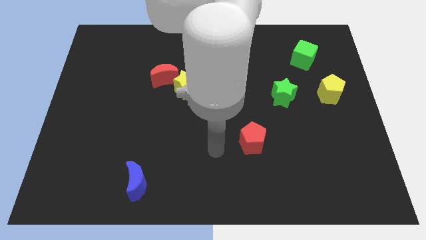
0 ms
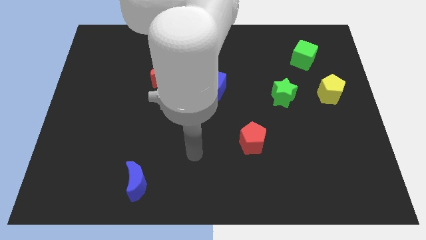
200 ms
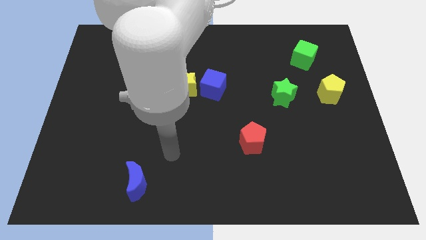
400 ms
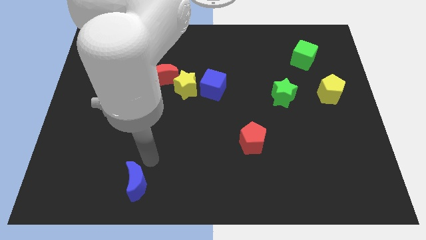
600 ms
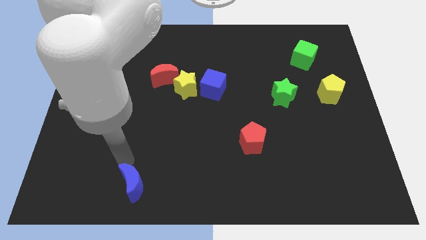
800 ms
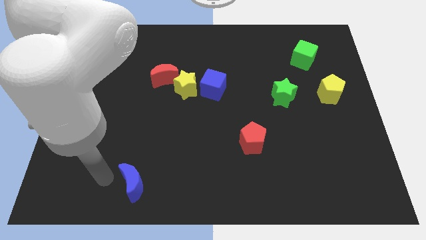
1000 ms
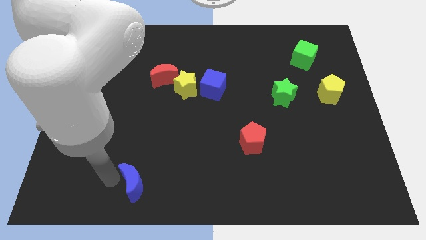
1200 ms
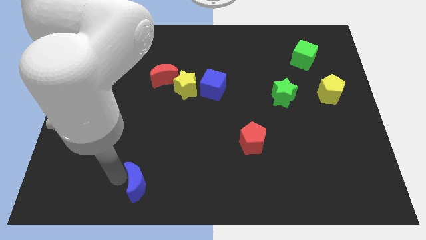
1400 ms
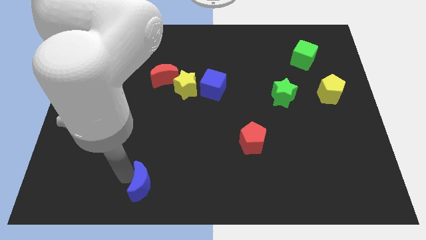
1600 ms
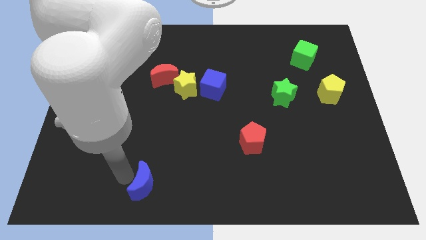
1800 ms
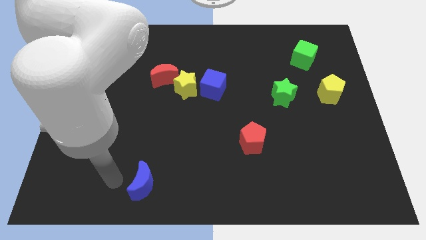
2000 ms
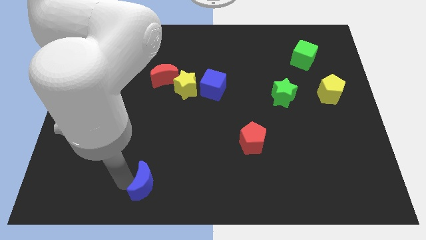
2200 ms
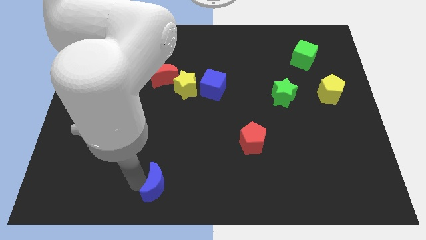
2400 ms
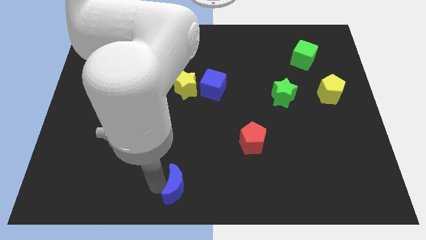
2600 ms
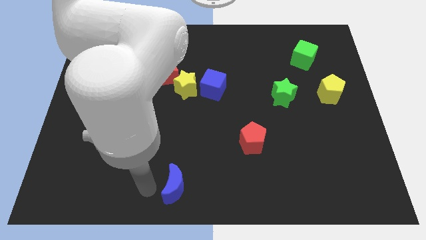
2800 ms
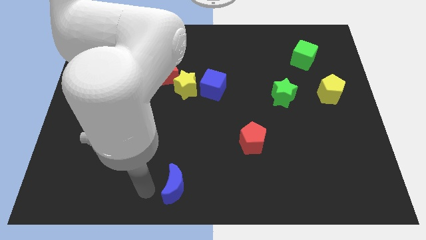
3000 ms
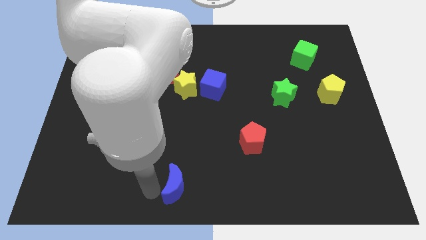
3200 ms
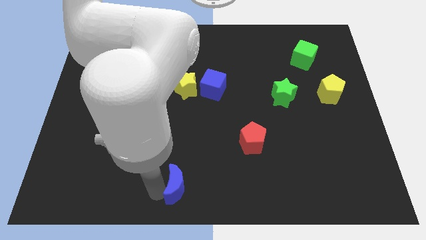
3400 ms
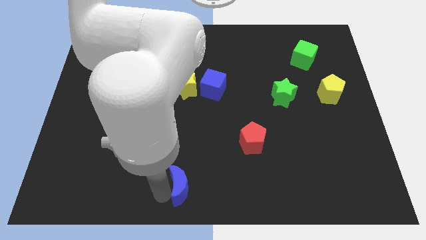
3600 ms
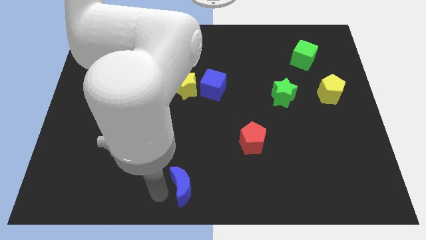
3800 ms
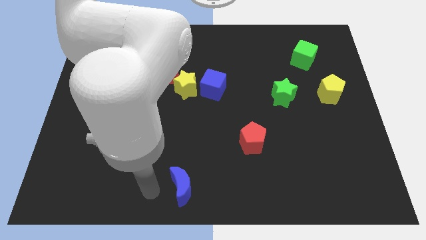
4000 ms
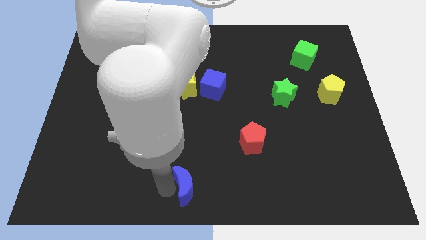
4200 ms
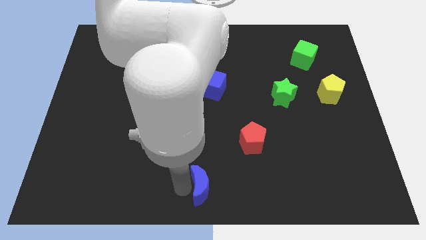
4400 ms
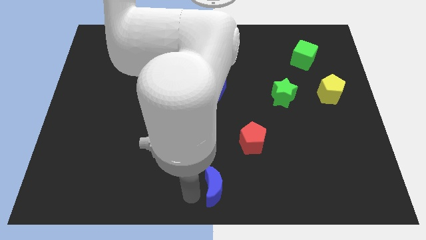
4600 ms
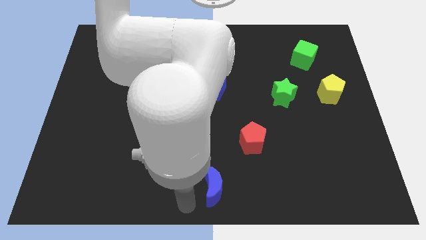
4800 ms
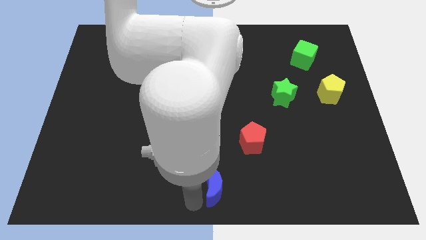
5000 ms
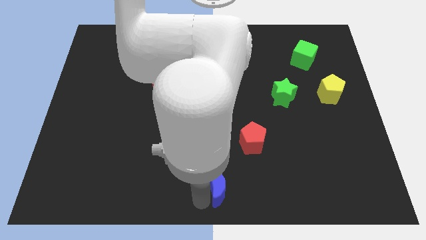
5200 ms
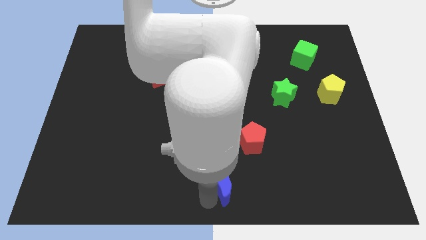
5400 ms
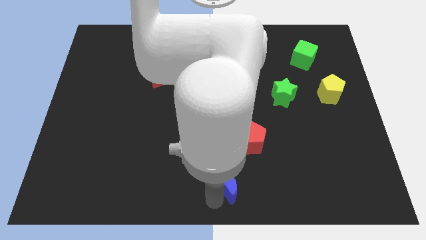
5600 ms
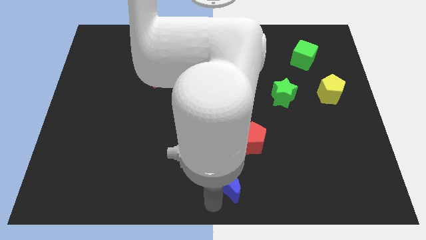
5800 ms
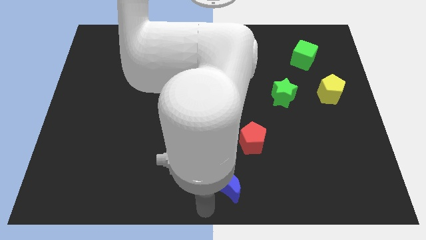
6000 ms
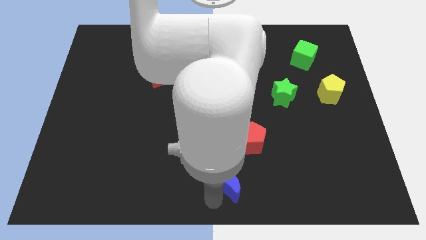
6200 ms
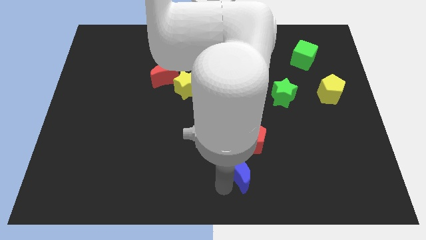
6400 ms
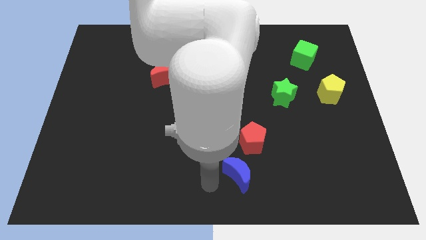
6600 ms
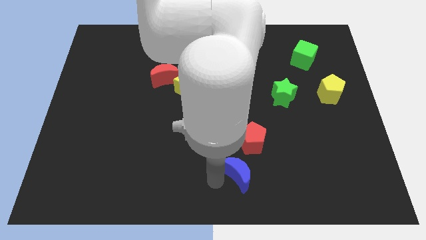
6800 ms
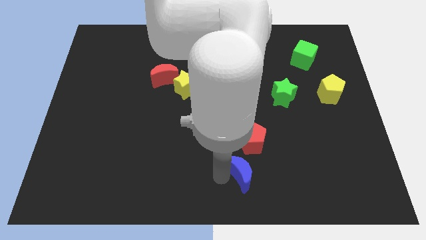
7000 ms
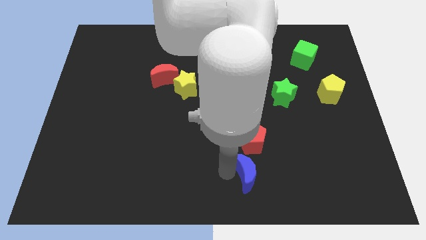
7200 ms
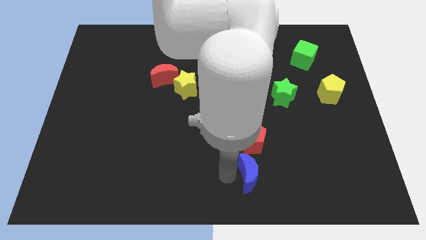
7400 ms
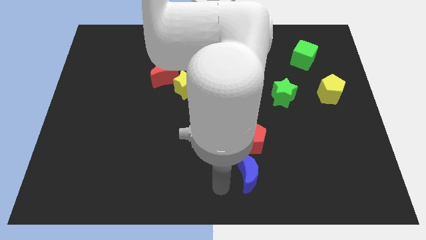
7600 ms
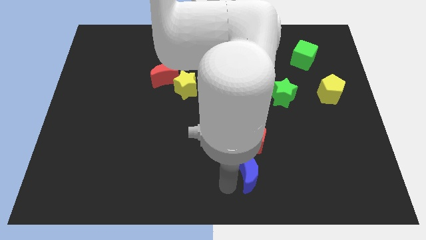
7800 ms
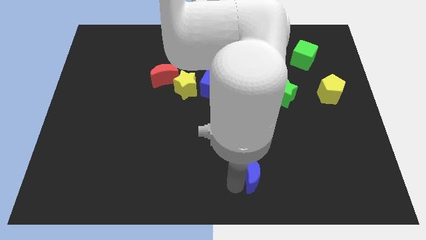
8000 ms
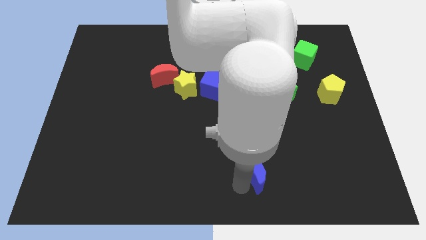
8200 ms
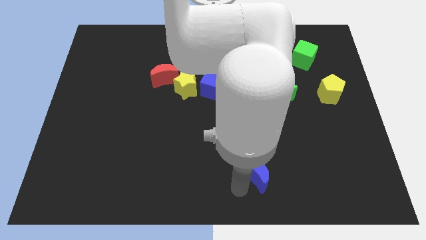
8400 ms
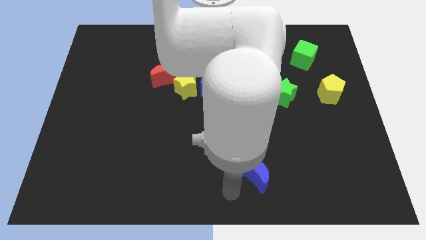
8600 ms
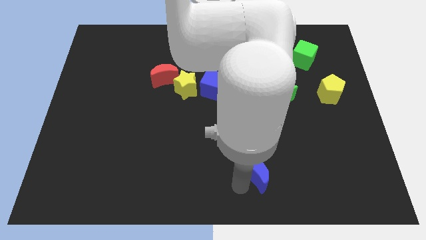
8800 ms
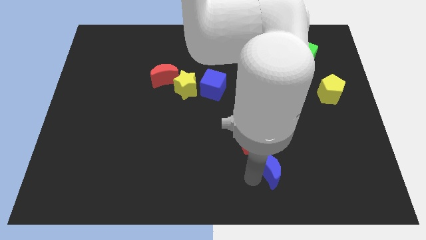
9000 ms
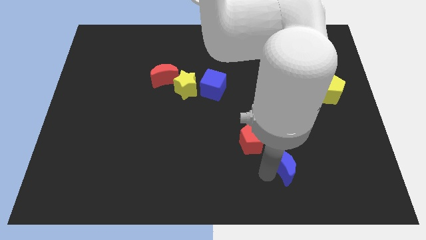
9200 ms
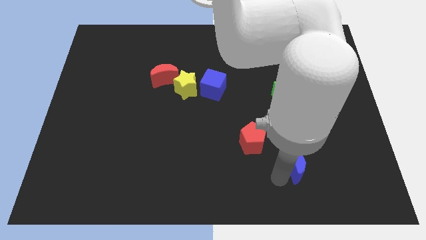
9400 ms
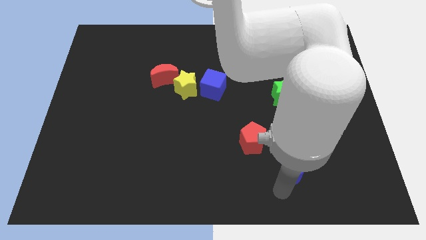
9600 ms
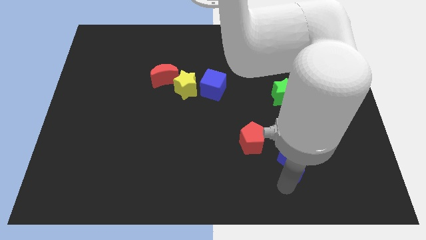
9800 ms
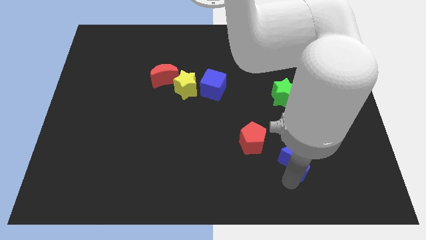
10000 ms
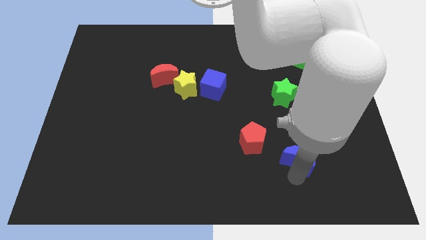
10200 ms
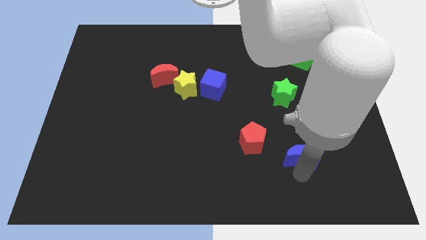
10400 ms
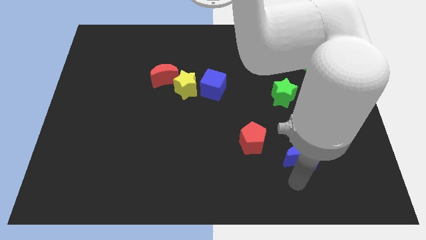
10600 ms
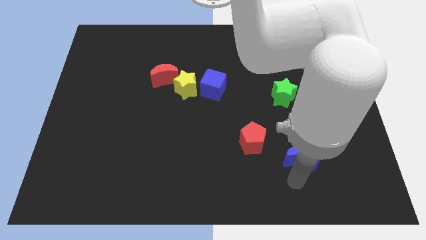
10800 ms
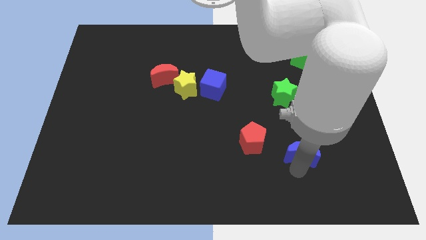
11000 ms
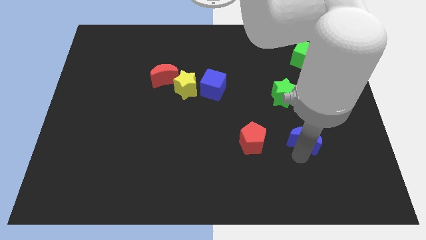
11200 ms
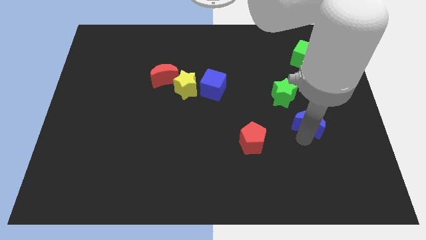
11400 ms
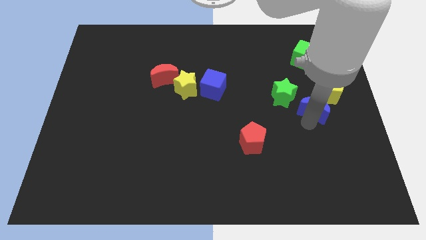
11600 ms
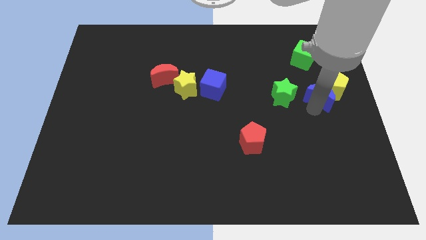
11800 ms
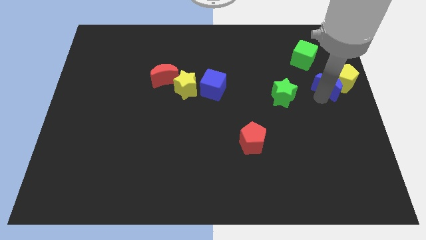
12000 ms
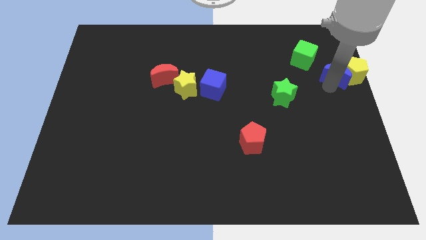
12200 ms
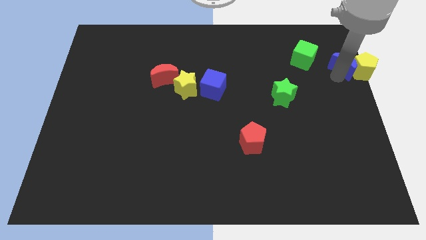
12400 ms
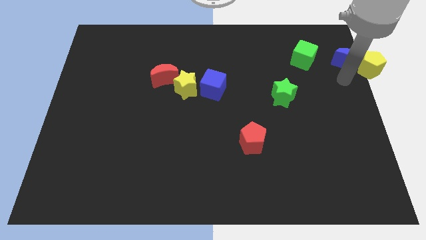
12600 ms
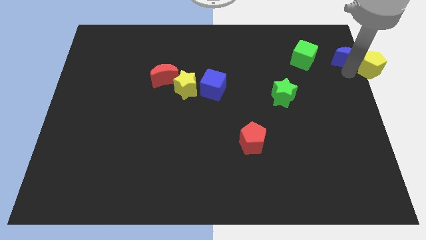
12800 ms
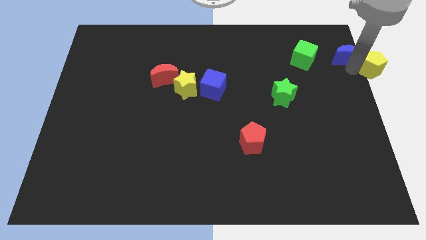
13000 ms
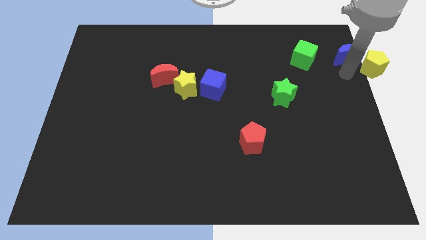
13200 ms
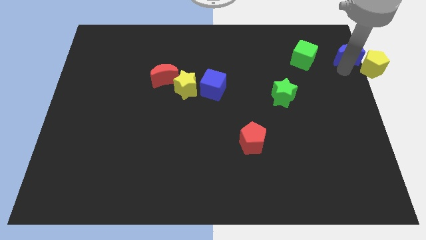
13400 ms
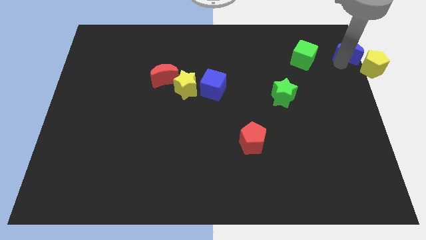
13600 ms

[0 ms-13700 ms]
push the blue moon to the top right corner
